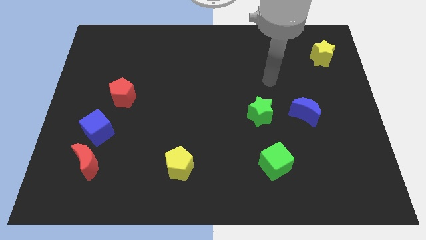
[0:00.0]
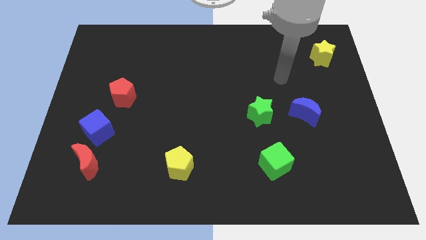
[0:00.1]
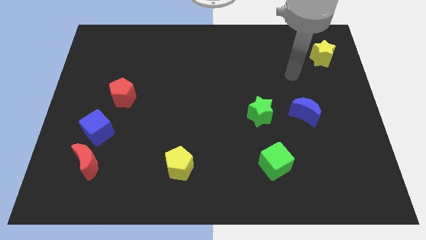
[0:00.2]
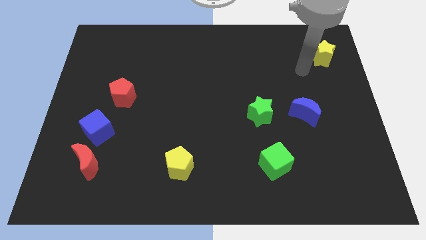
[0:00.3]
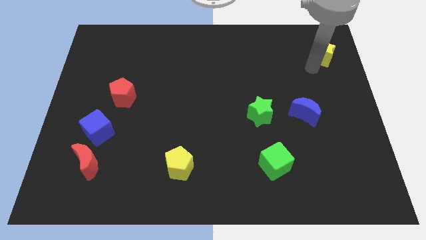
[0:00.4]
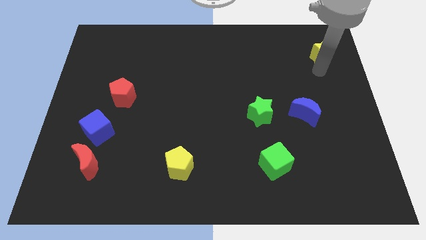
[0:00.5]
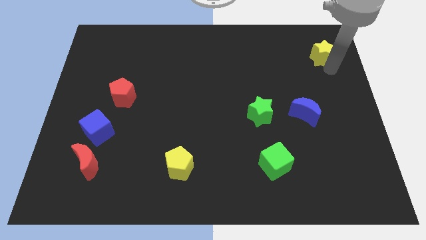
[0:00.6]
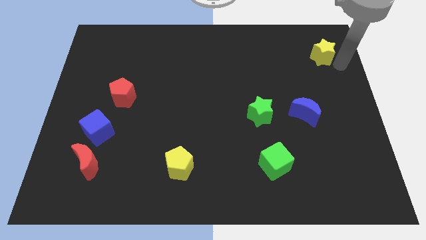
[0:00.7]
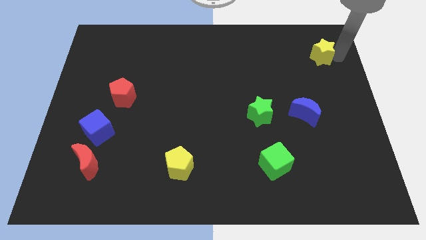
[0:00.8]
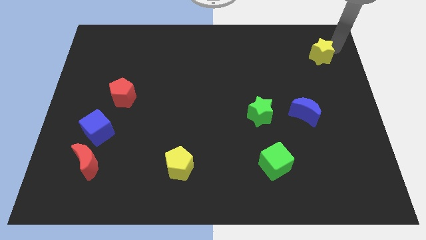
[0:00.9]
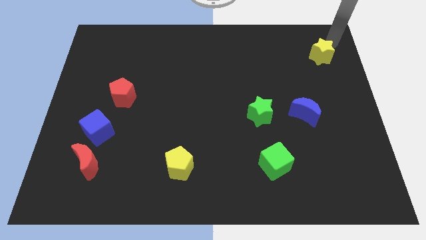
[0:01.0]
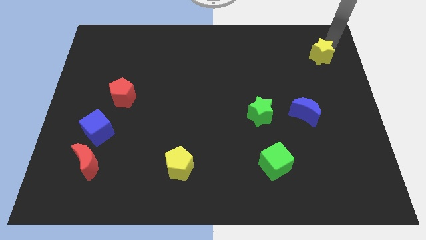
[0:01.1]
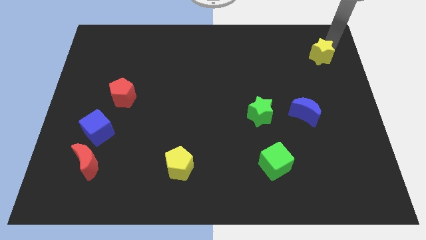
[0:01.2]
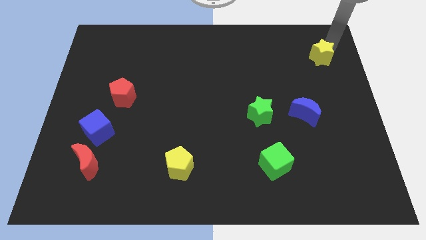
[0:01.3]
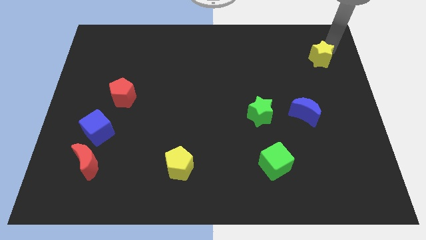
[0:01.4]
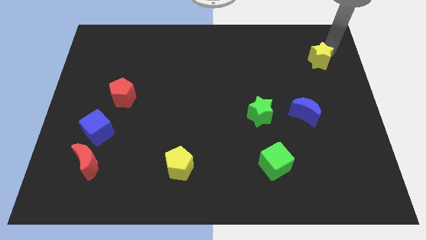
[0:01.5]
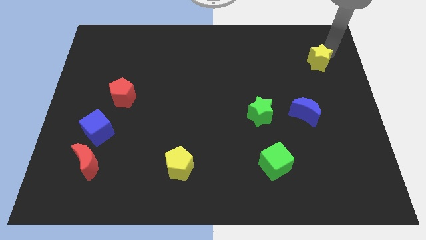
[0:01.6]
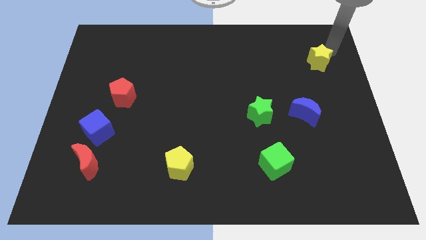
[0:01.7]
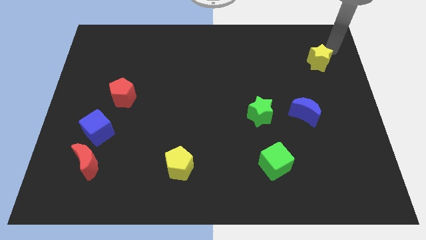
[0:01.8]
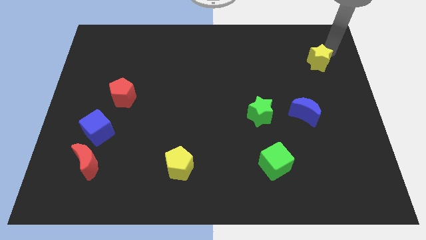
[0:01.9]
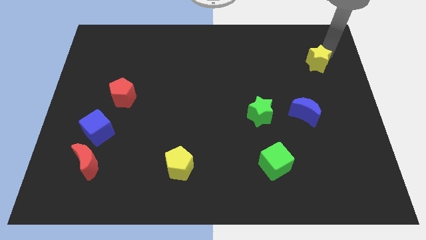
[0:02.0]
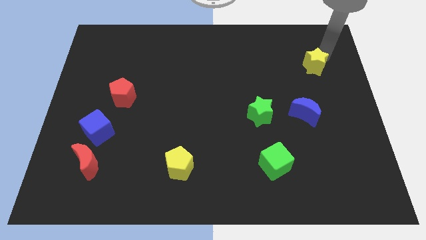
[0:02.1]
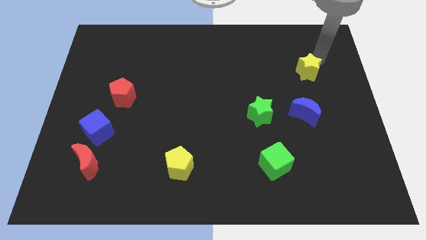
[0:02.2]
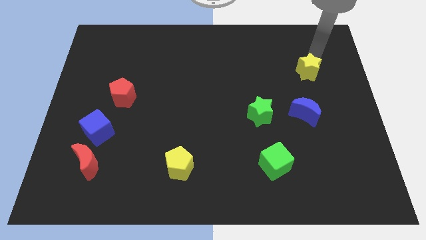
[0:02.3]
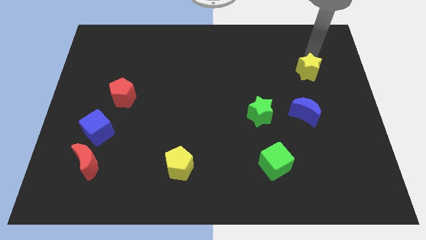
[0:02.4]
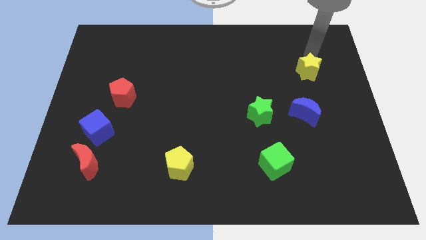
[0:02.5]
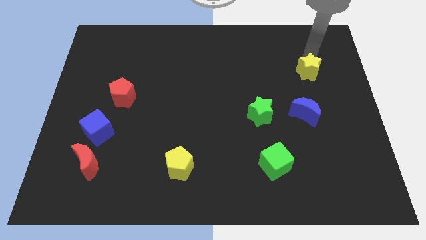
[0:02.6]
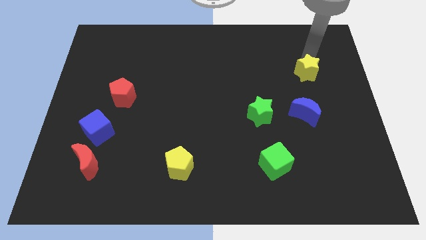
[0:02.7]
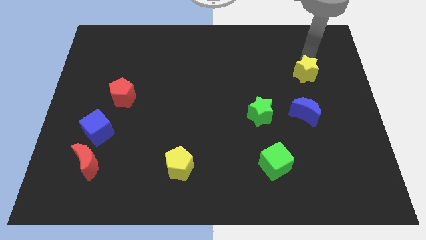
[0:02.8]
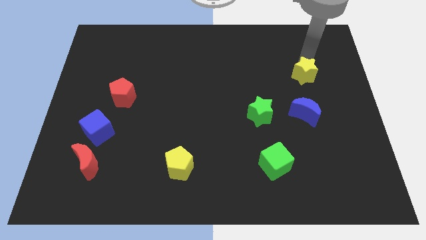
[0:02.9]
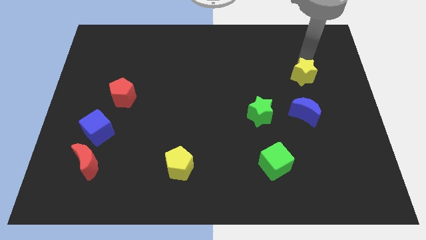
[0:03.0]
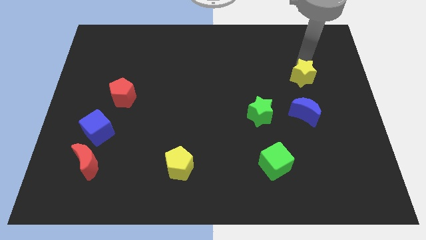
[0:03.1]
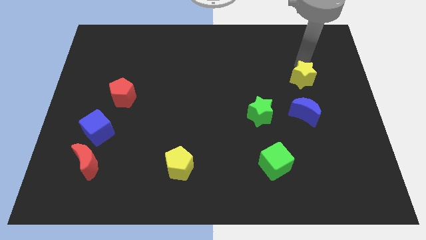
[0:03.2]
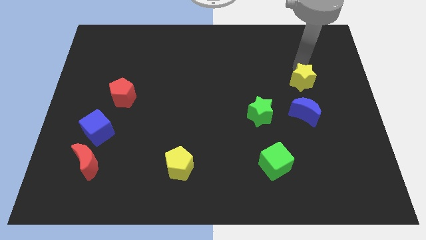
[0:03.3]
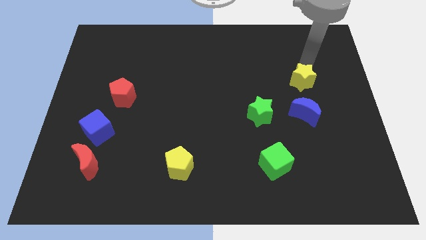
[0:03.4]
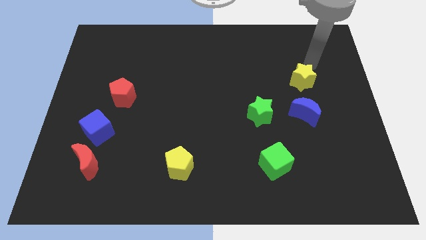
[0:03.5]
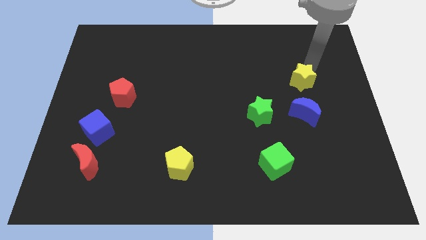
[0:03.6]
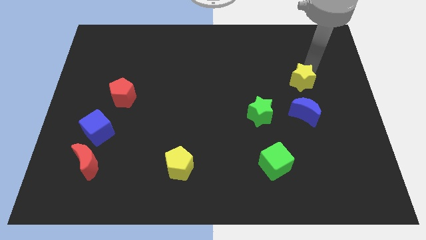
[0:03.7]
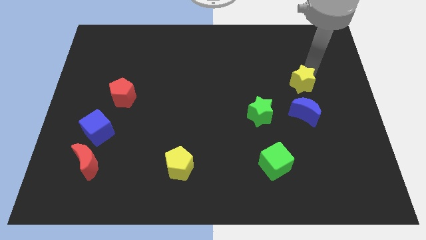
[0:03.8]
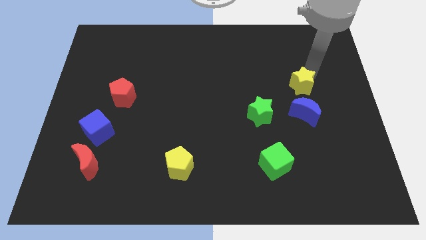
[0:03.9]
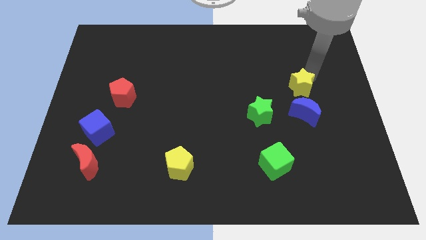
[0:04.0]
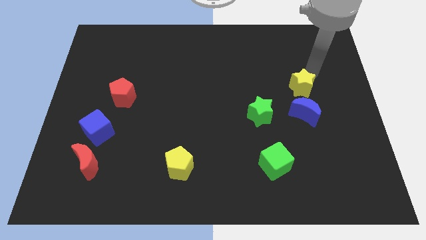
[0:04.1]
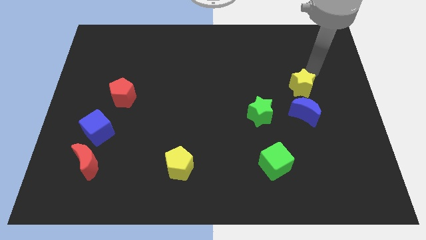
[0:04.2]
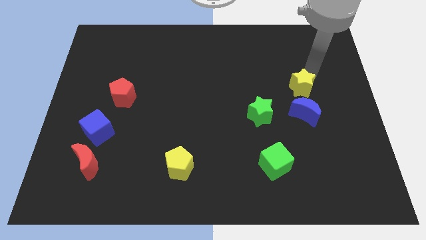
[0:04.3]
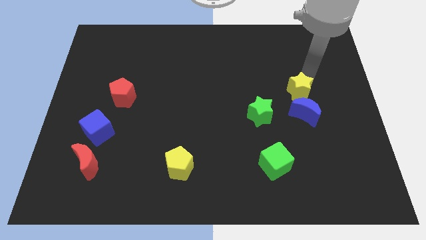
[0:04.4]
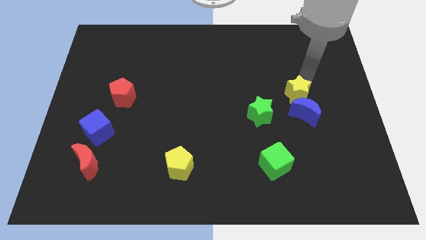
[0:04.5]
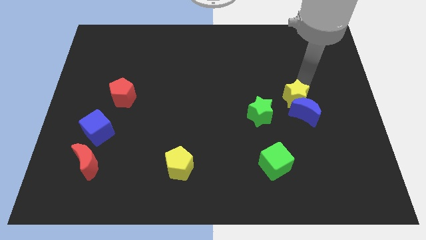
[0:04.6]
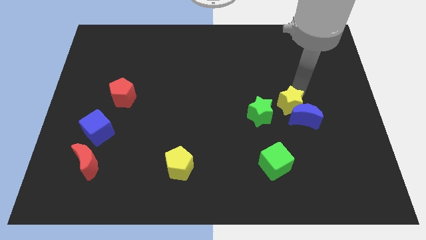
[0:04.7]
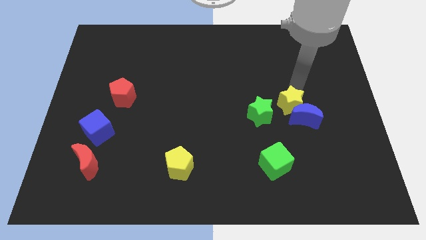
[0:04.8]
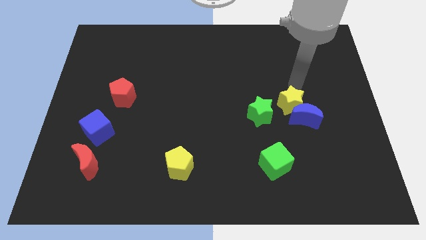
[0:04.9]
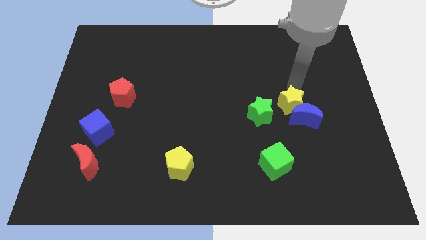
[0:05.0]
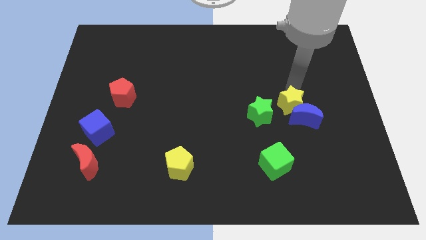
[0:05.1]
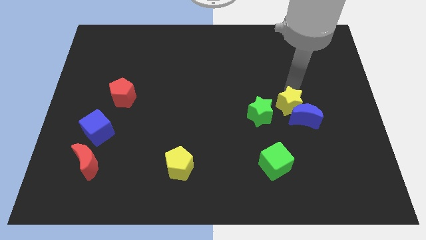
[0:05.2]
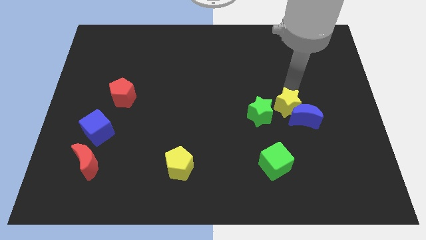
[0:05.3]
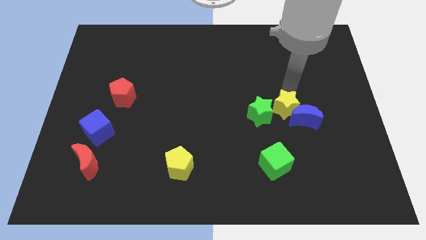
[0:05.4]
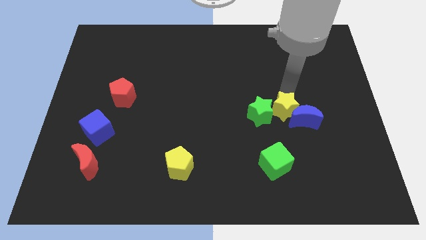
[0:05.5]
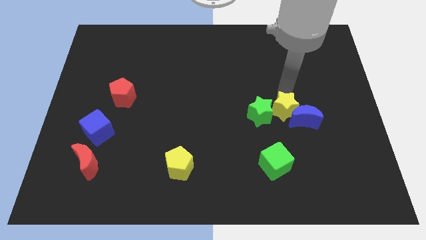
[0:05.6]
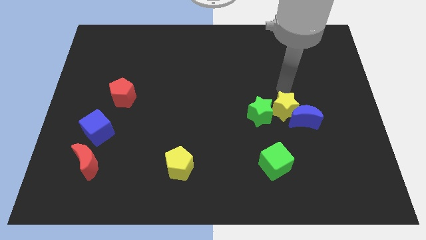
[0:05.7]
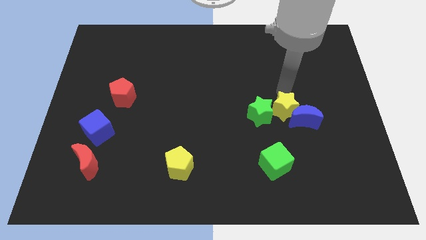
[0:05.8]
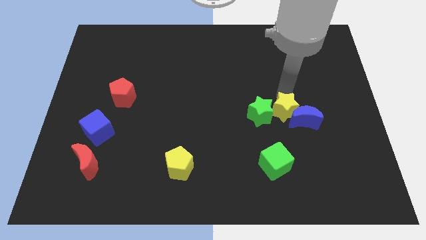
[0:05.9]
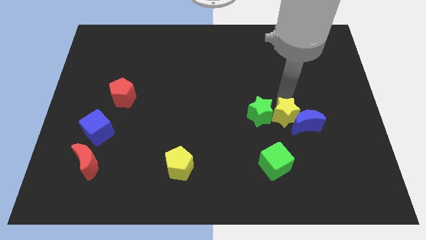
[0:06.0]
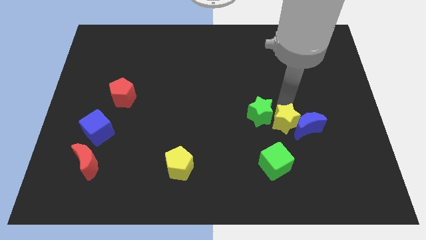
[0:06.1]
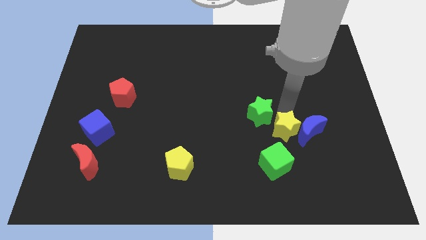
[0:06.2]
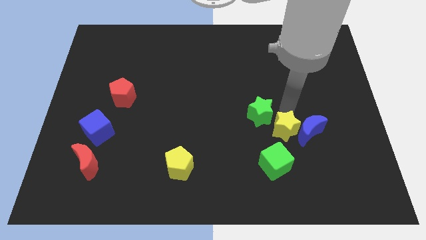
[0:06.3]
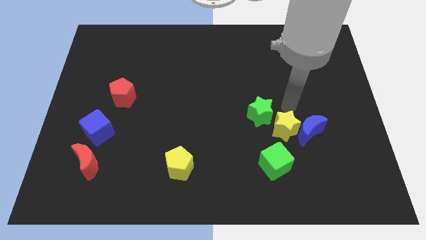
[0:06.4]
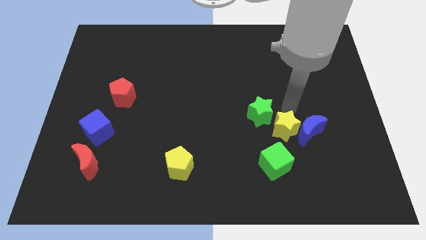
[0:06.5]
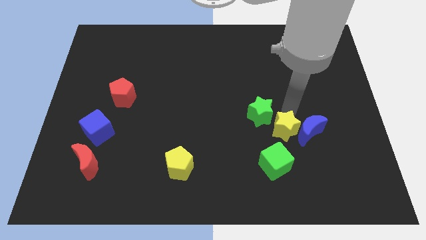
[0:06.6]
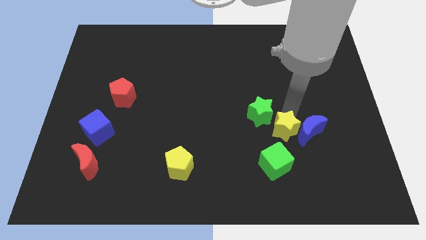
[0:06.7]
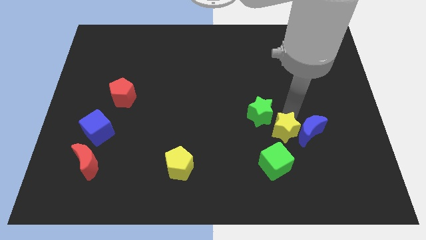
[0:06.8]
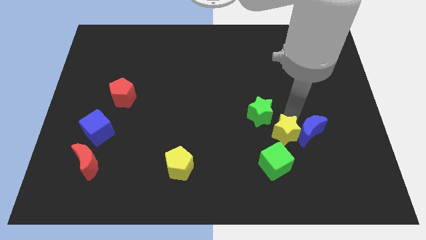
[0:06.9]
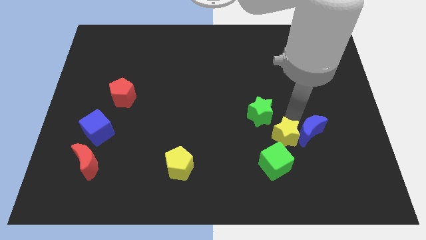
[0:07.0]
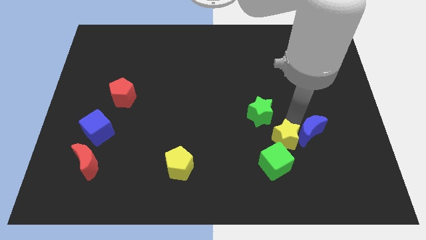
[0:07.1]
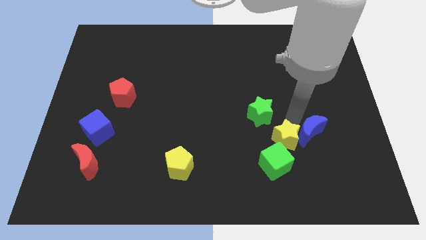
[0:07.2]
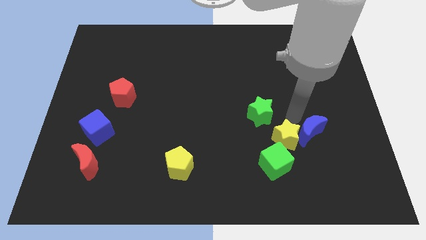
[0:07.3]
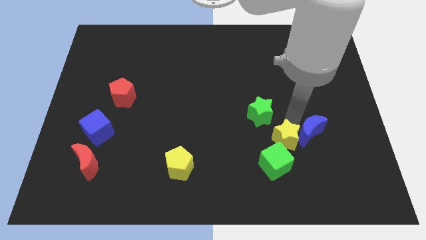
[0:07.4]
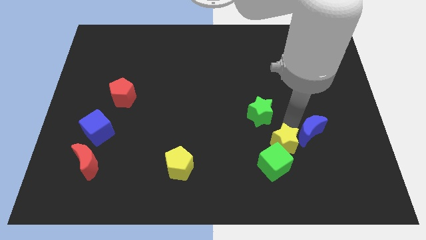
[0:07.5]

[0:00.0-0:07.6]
move the yellow star close to the green cube

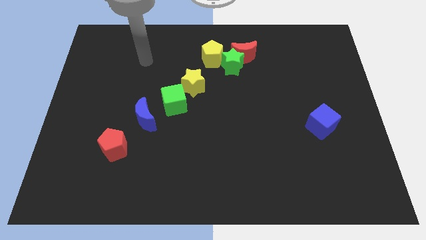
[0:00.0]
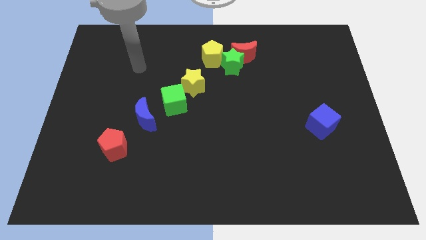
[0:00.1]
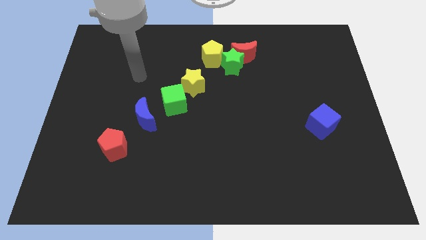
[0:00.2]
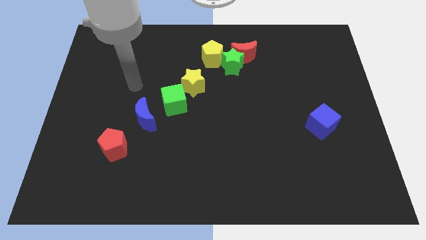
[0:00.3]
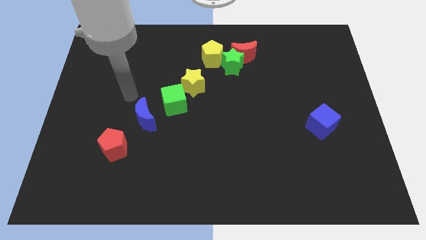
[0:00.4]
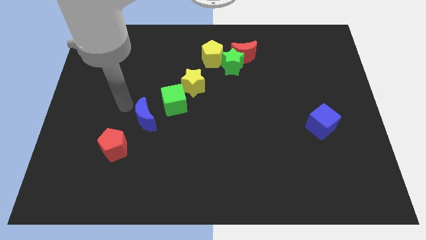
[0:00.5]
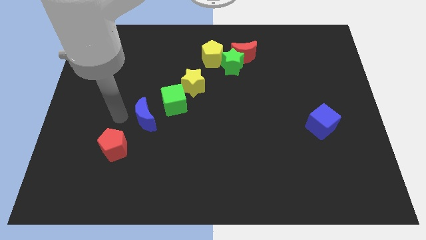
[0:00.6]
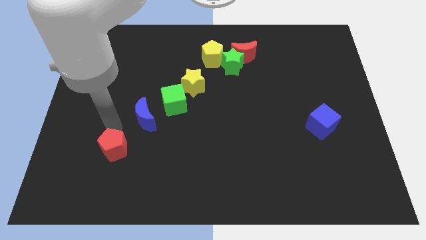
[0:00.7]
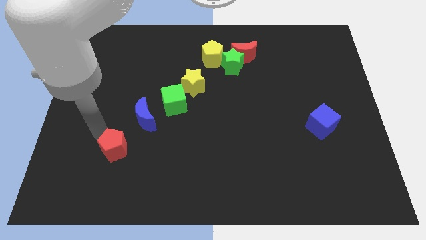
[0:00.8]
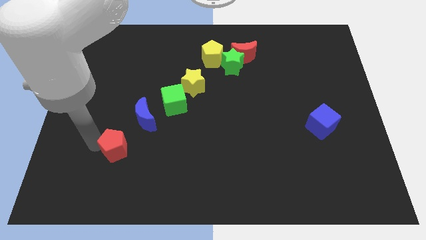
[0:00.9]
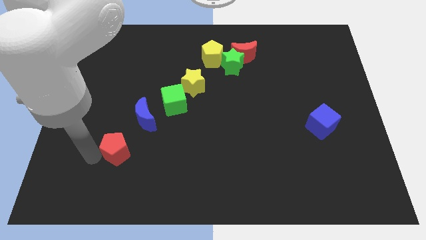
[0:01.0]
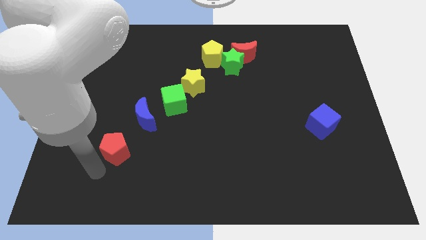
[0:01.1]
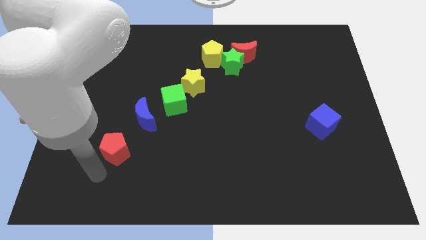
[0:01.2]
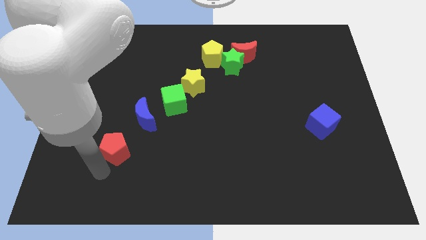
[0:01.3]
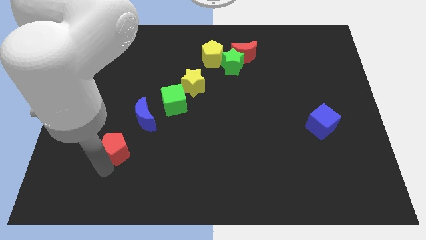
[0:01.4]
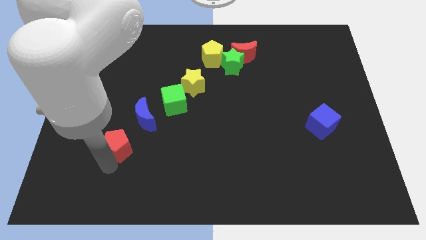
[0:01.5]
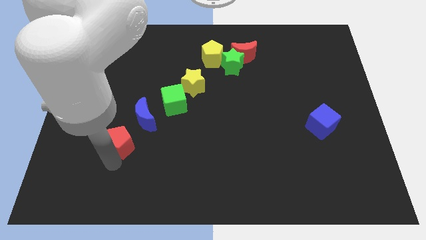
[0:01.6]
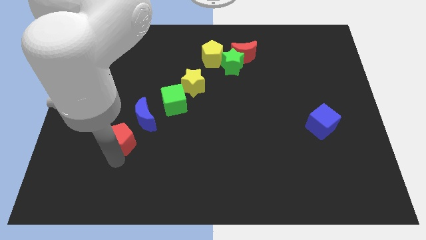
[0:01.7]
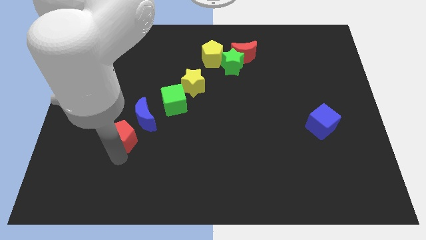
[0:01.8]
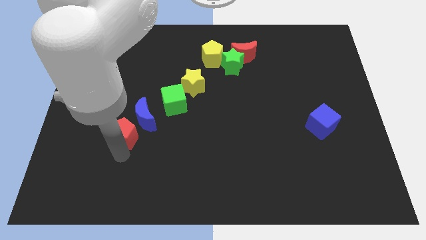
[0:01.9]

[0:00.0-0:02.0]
push the red pentagon towards the blue moon
